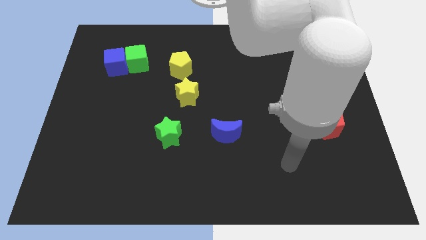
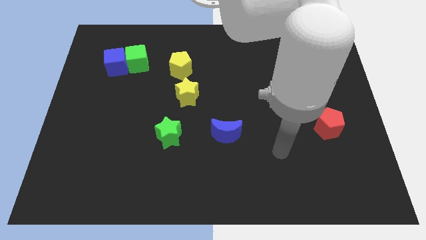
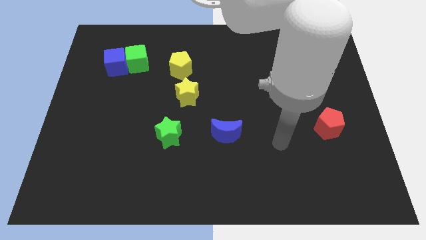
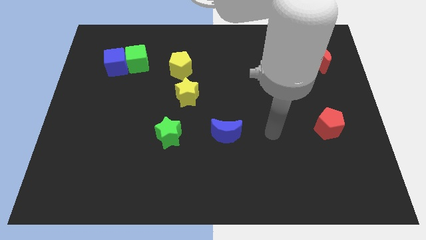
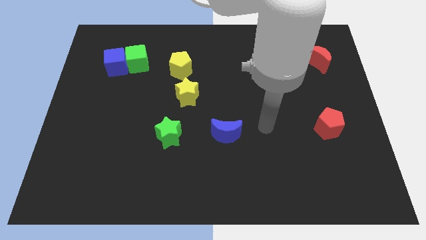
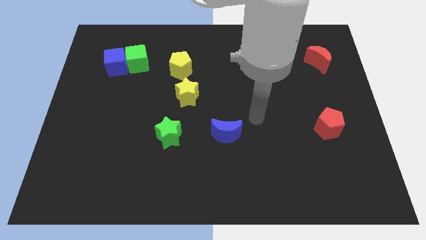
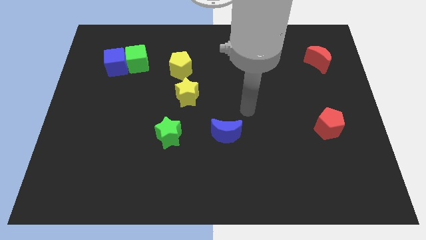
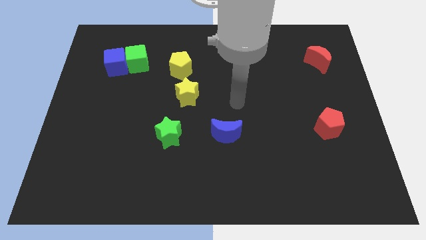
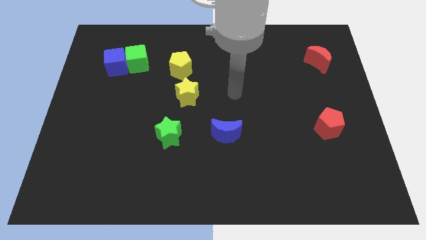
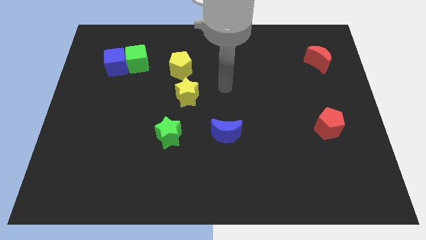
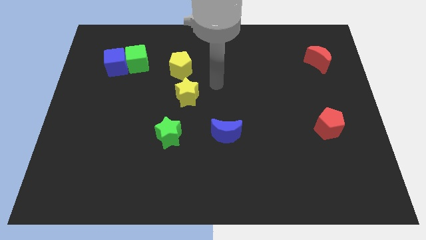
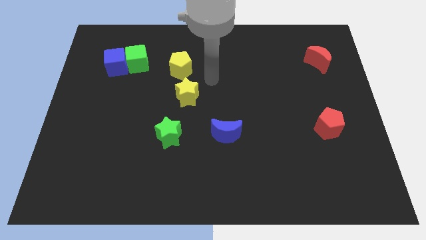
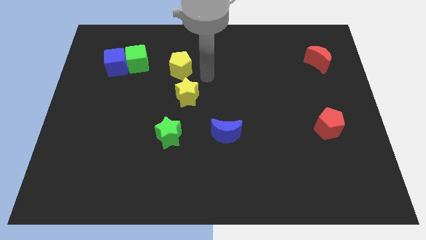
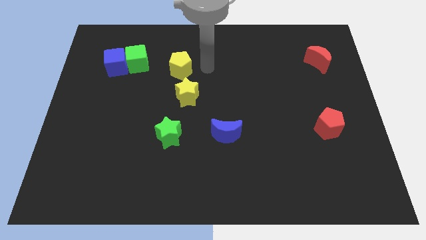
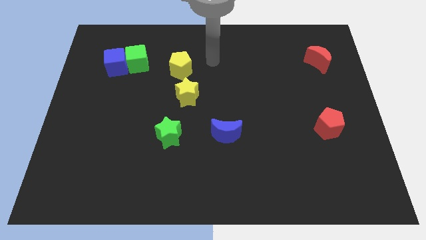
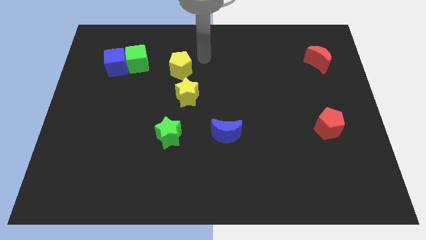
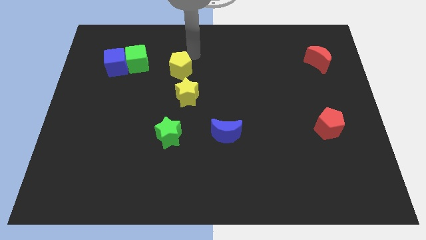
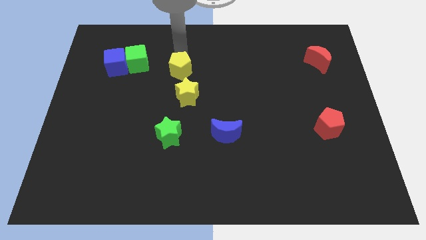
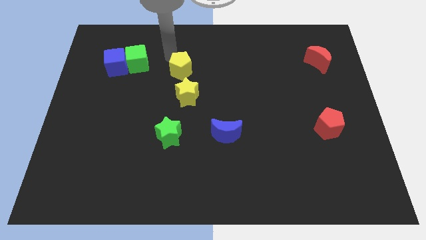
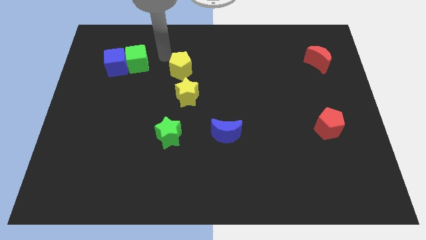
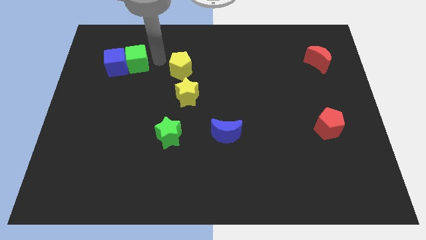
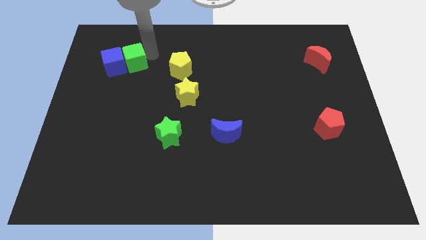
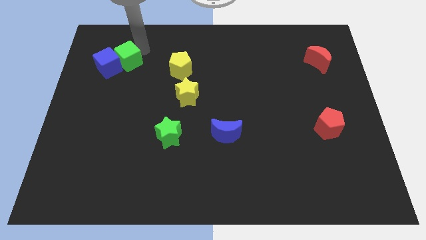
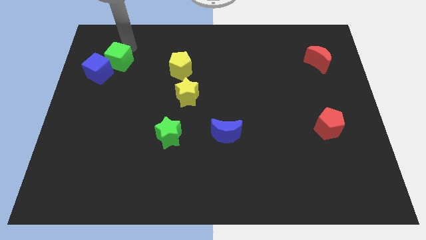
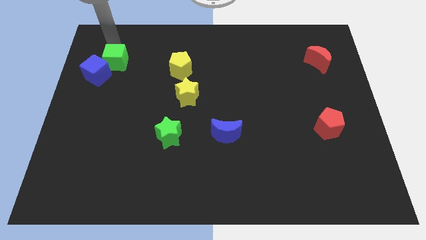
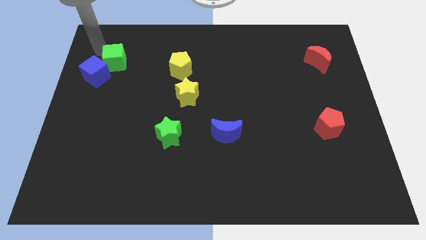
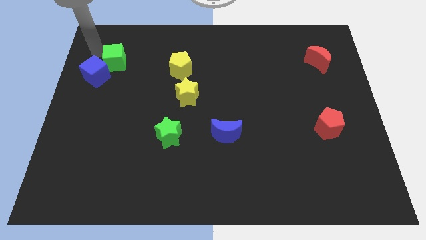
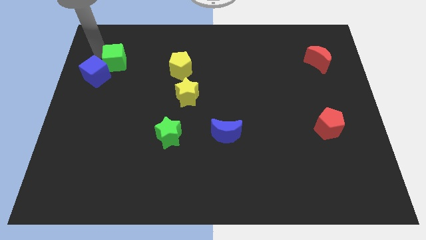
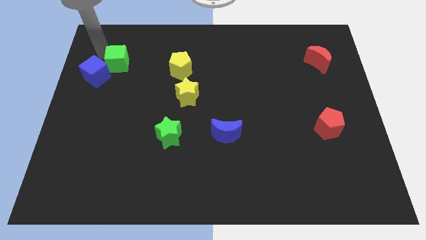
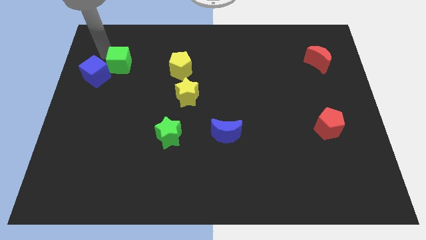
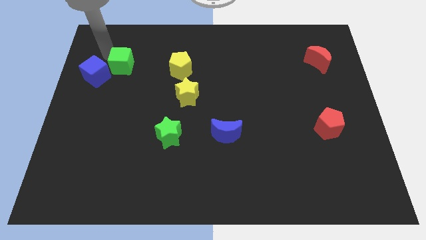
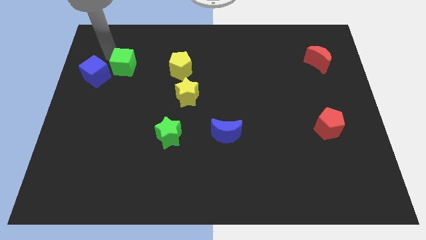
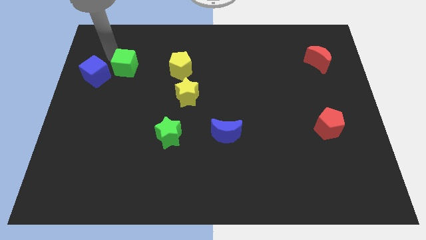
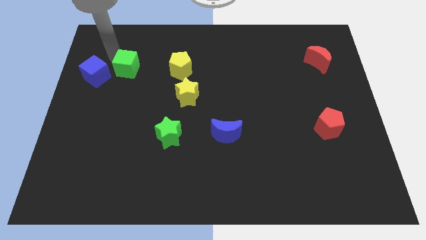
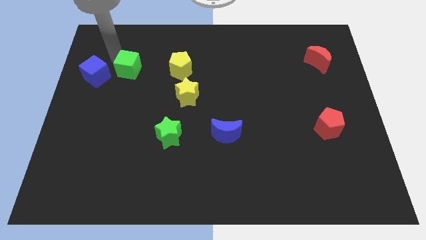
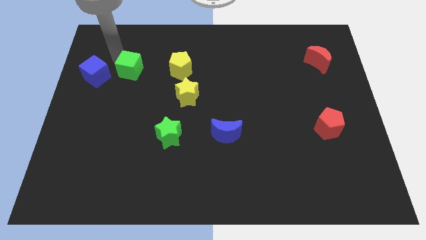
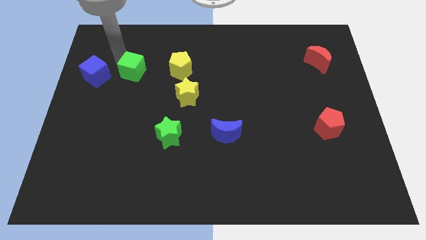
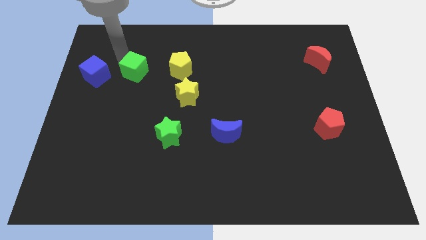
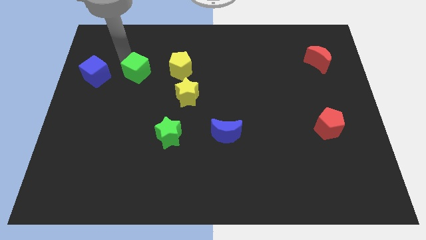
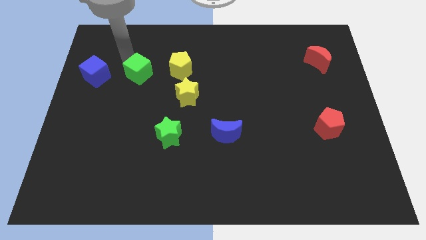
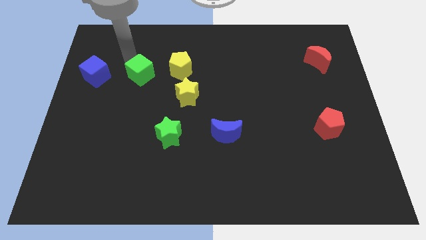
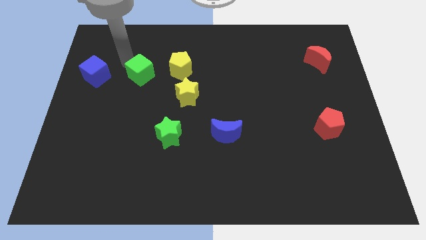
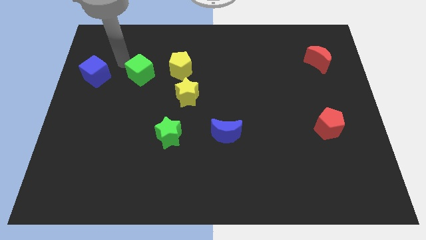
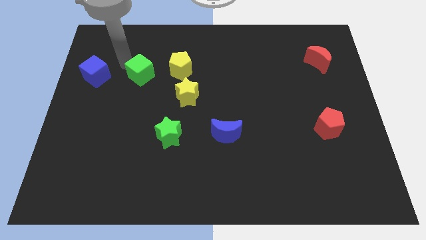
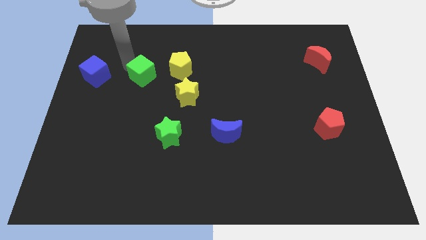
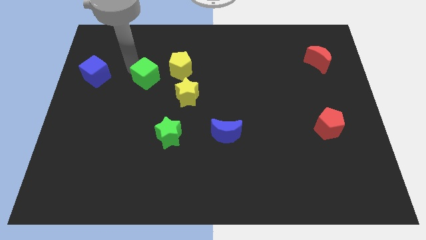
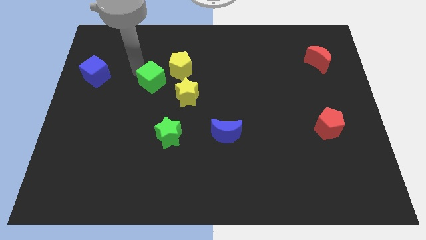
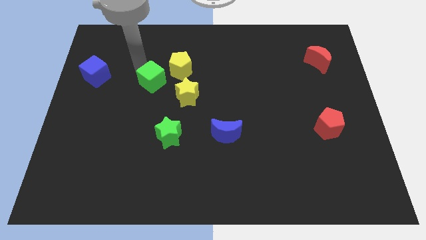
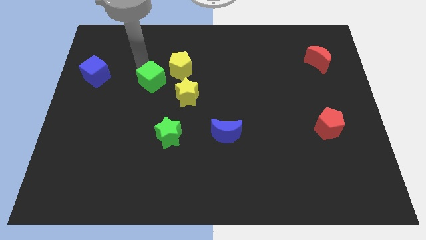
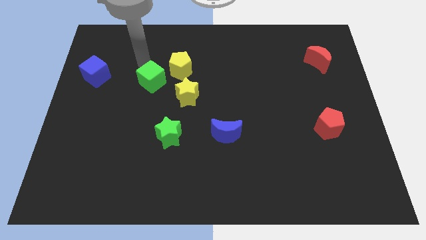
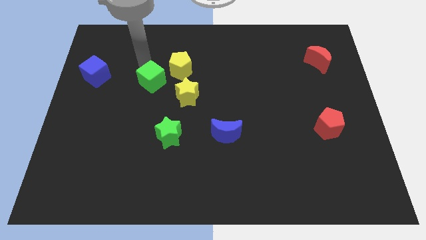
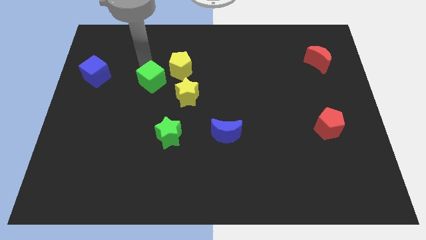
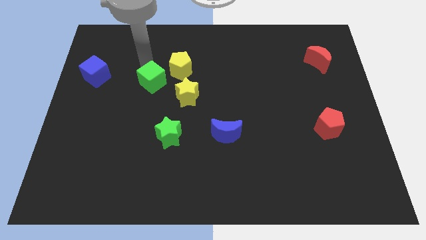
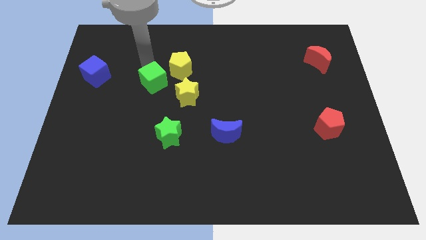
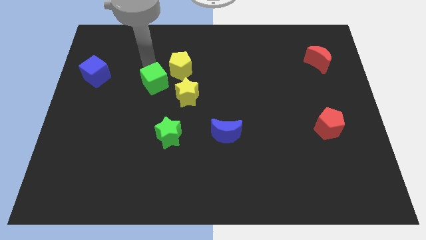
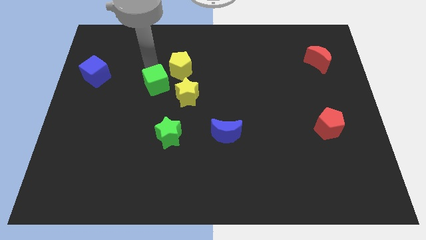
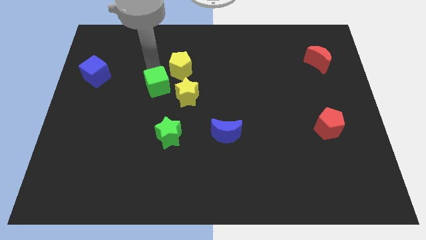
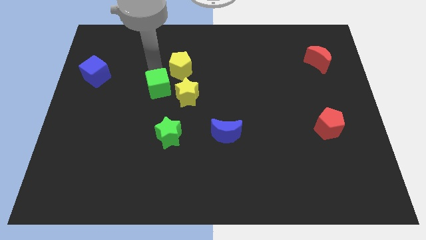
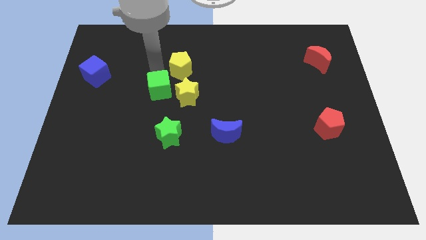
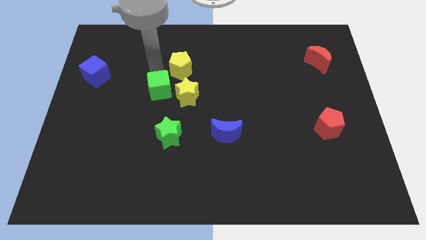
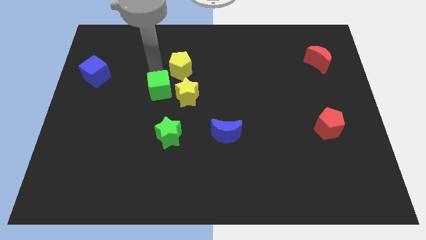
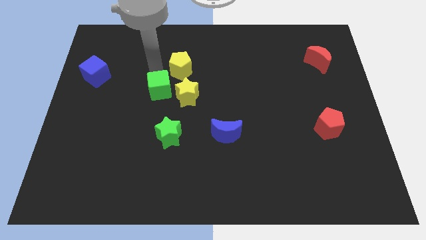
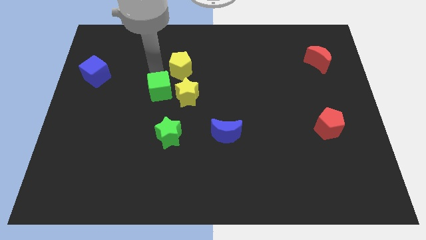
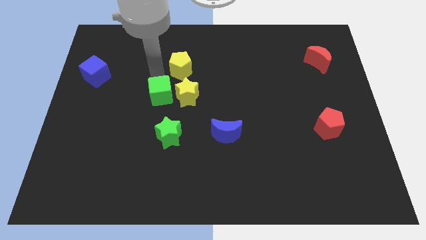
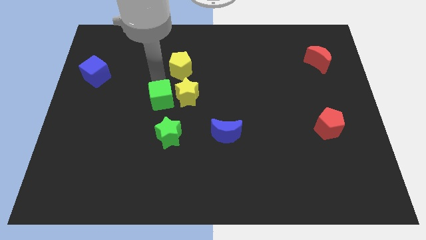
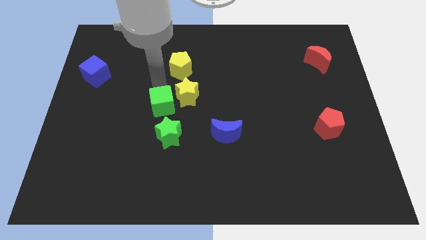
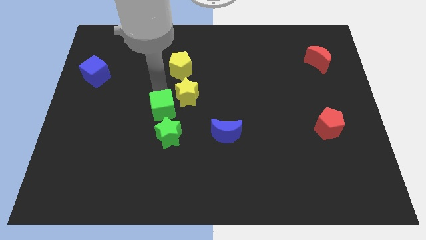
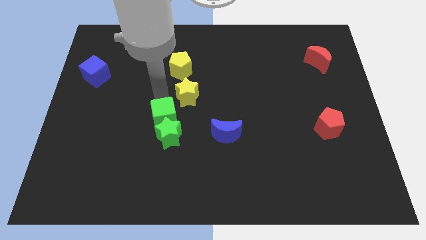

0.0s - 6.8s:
push the green cube close to the green star
